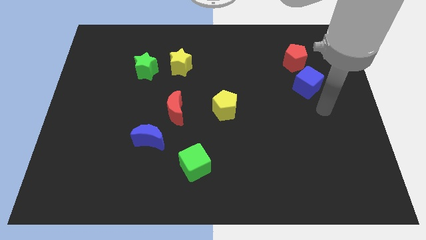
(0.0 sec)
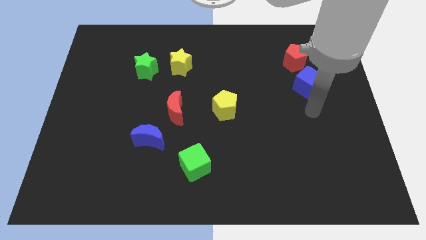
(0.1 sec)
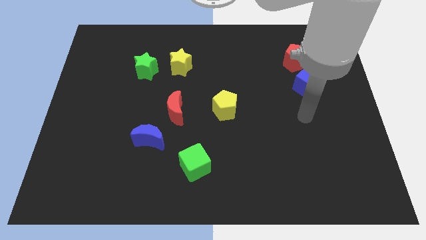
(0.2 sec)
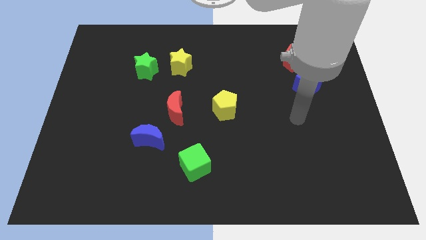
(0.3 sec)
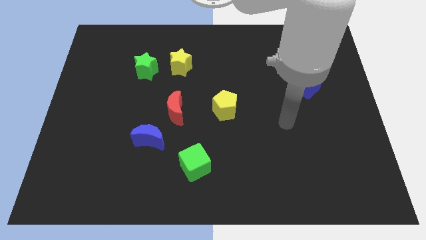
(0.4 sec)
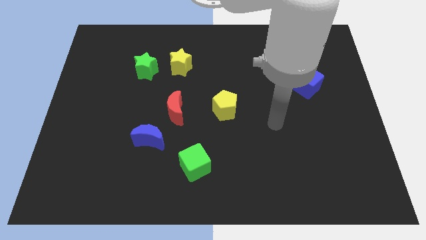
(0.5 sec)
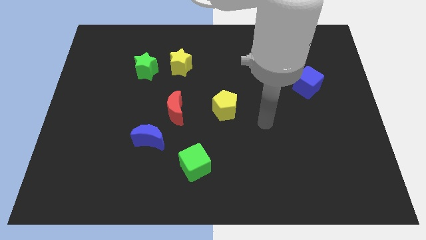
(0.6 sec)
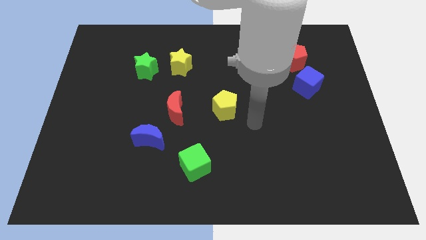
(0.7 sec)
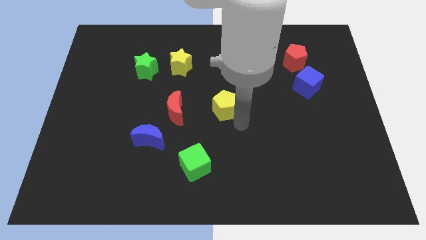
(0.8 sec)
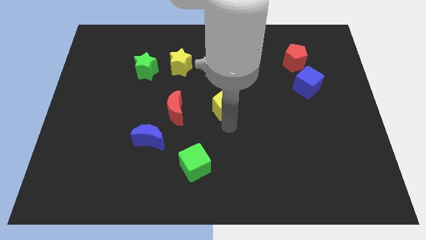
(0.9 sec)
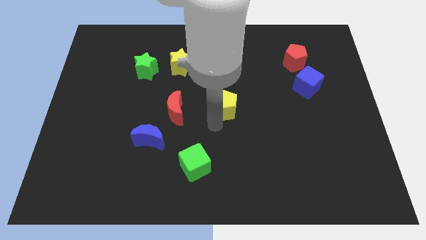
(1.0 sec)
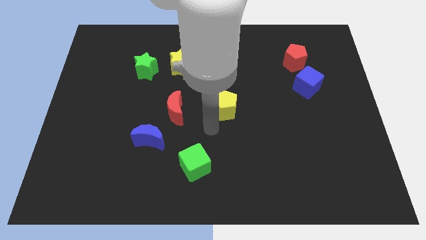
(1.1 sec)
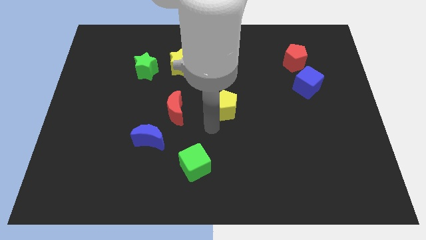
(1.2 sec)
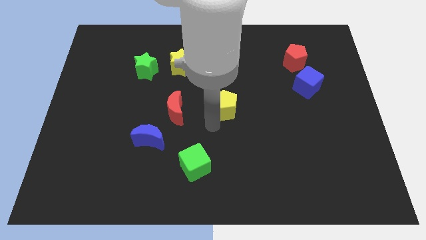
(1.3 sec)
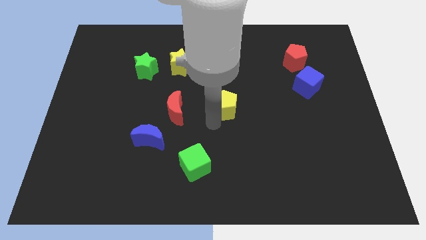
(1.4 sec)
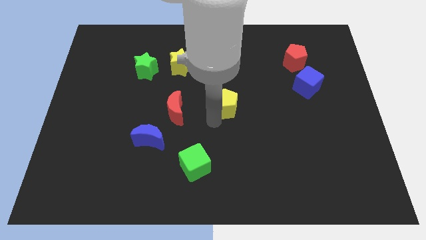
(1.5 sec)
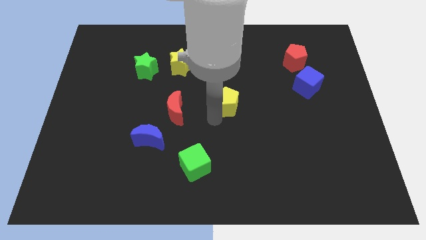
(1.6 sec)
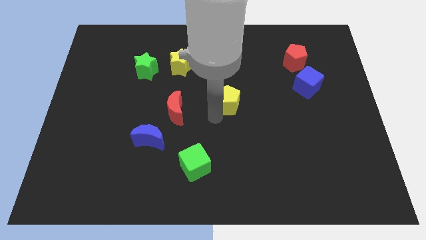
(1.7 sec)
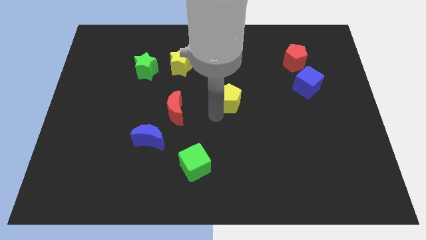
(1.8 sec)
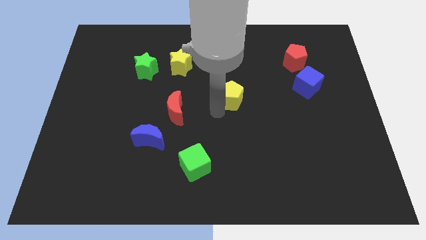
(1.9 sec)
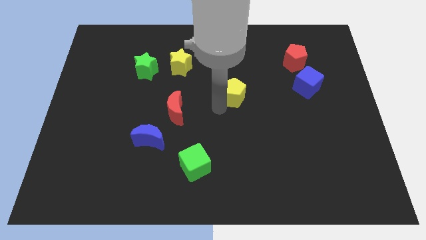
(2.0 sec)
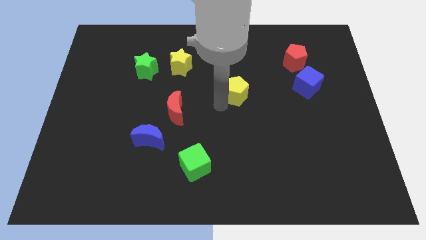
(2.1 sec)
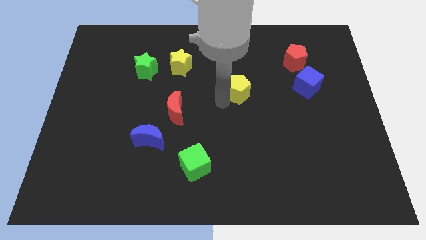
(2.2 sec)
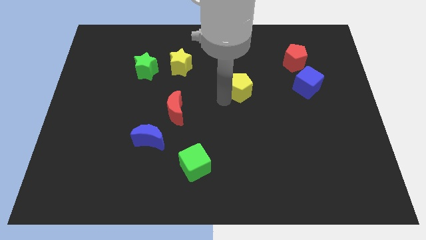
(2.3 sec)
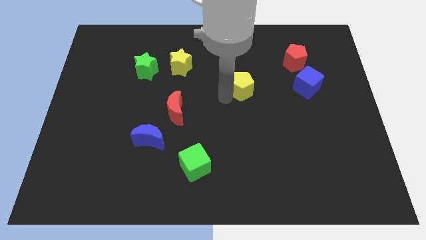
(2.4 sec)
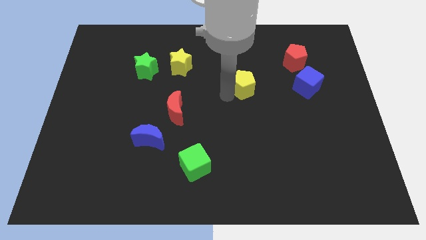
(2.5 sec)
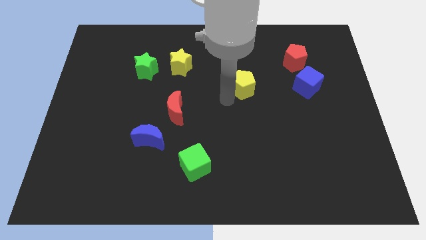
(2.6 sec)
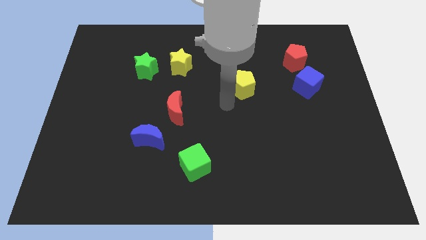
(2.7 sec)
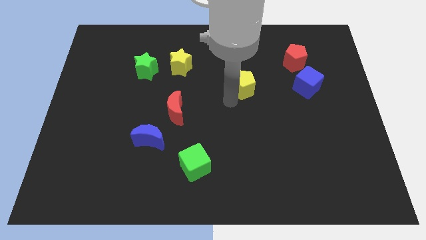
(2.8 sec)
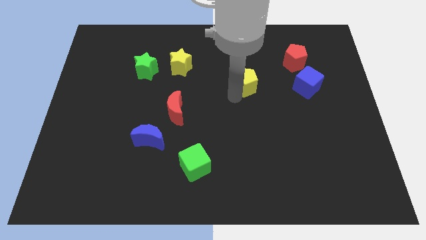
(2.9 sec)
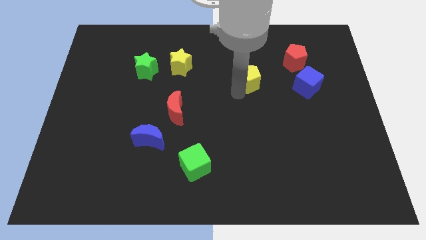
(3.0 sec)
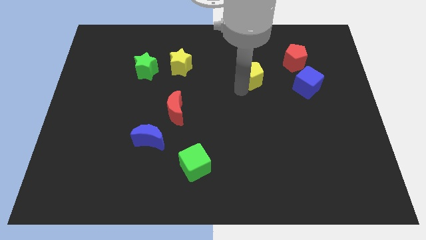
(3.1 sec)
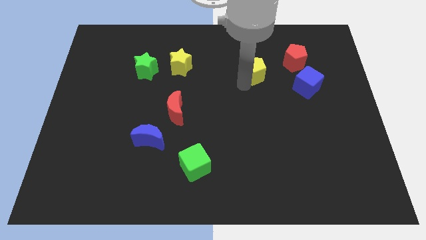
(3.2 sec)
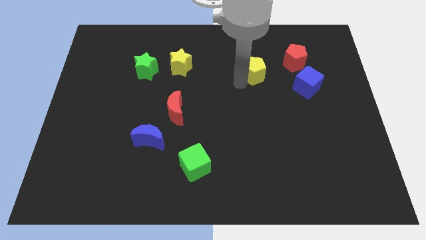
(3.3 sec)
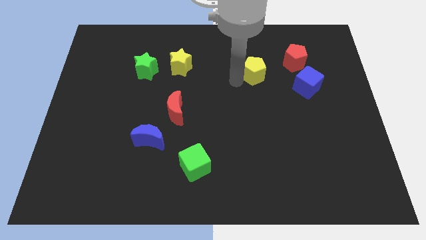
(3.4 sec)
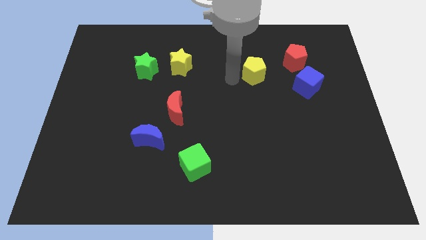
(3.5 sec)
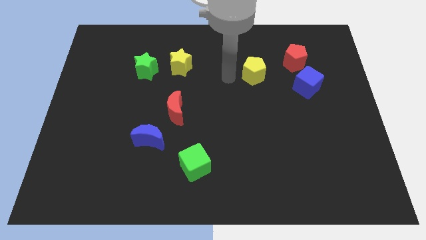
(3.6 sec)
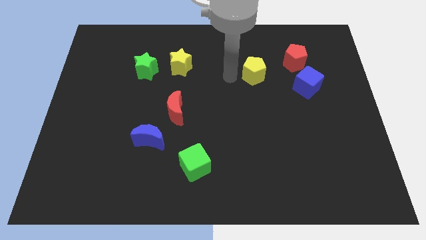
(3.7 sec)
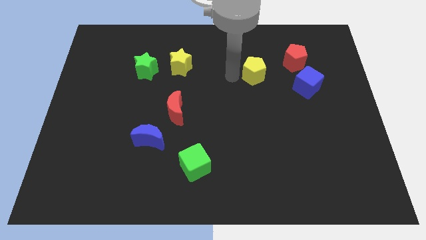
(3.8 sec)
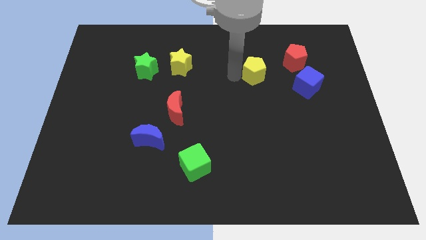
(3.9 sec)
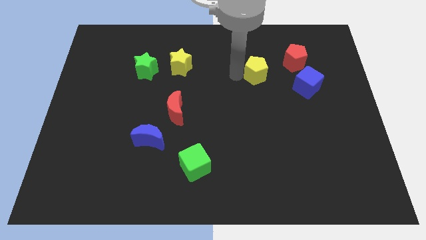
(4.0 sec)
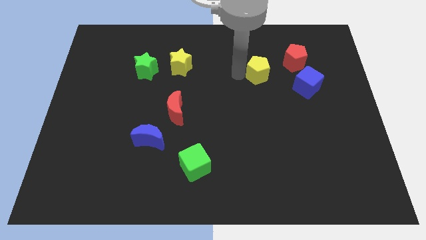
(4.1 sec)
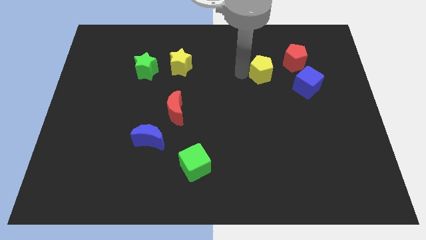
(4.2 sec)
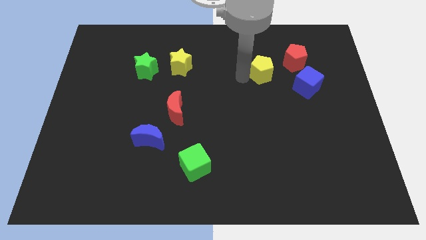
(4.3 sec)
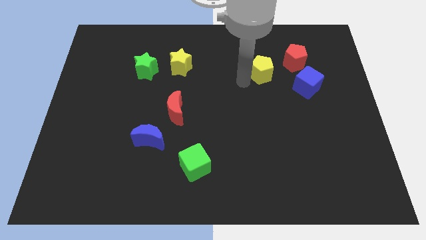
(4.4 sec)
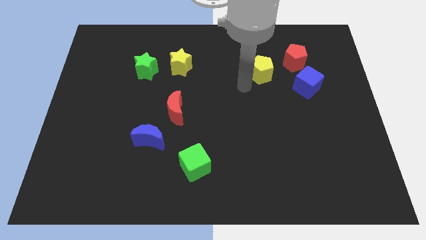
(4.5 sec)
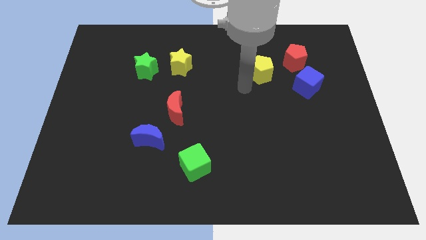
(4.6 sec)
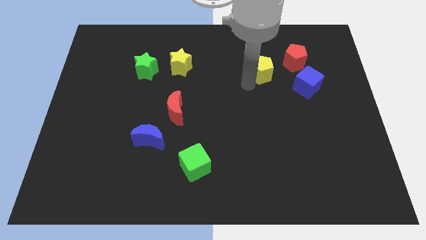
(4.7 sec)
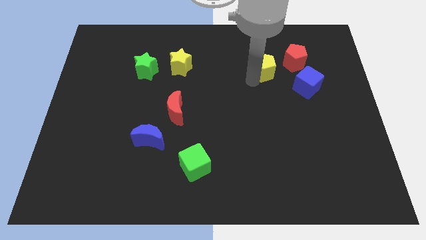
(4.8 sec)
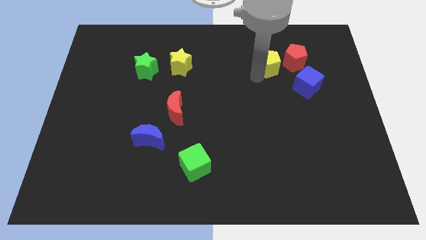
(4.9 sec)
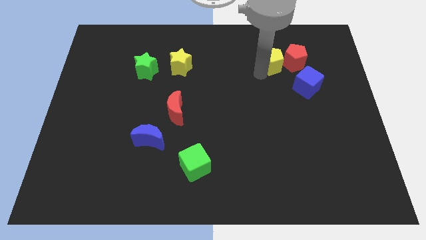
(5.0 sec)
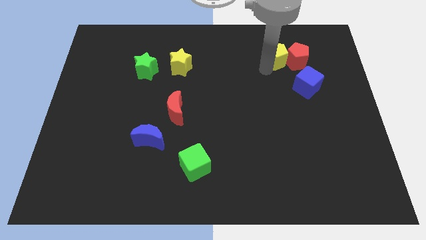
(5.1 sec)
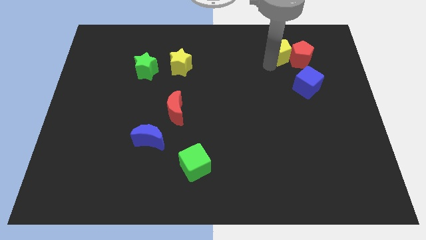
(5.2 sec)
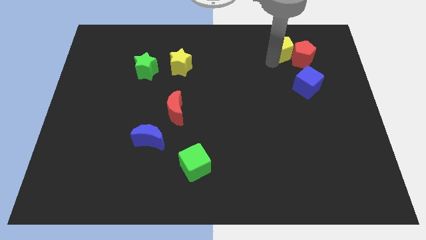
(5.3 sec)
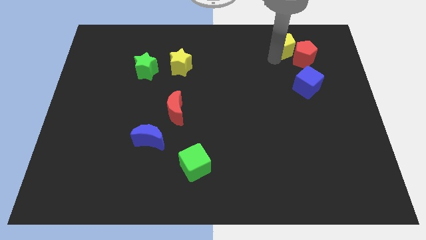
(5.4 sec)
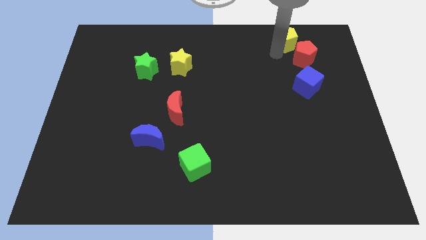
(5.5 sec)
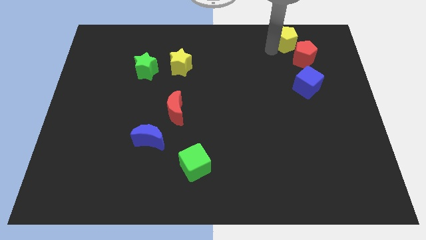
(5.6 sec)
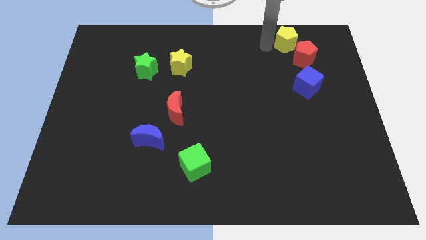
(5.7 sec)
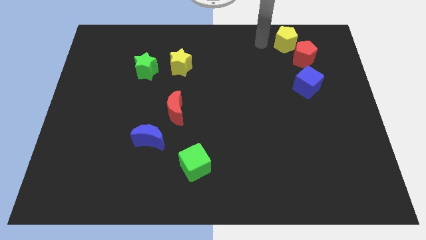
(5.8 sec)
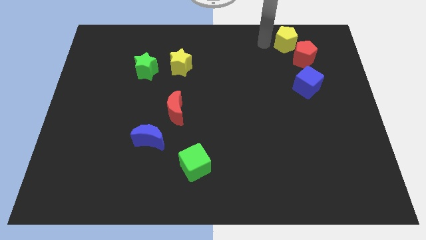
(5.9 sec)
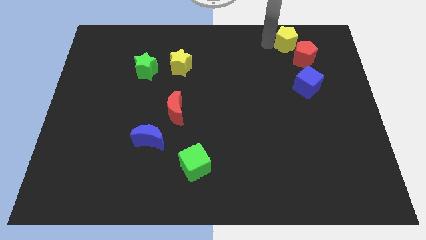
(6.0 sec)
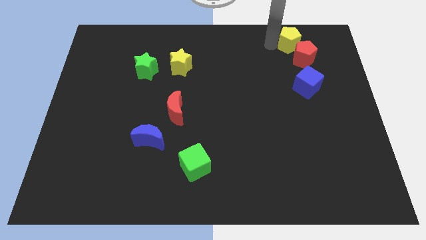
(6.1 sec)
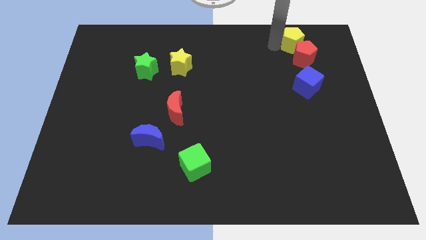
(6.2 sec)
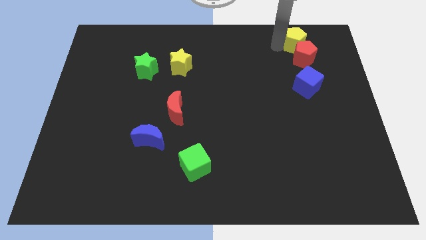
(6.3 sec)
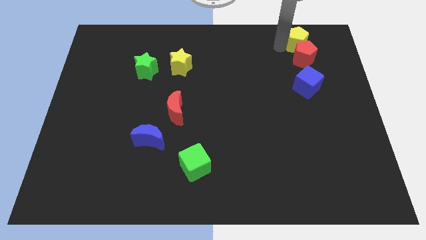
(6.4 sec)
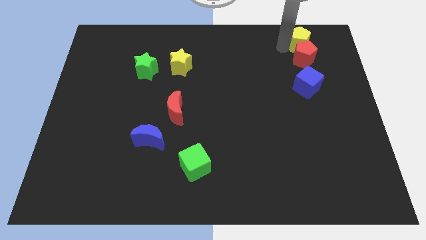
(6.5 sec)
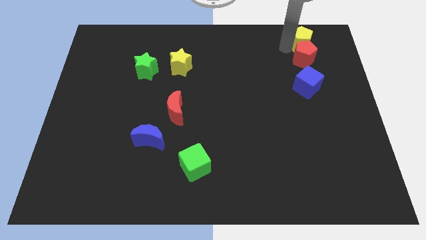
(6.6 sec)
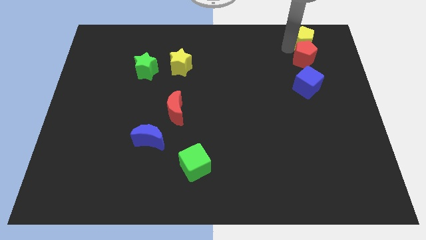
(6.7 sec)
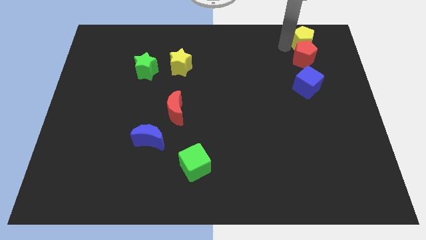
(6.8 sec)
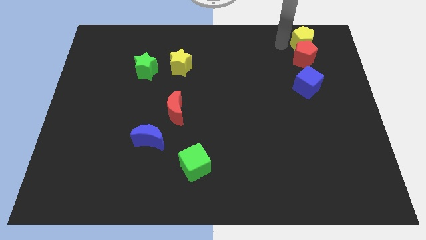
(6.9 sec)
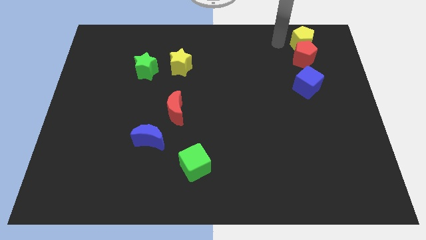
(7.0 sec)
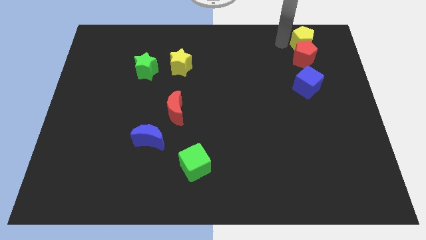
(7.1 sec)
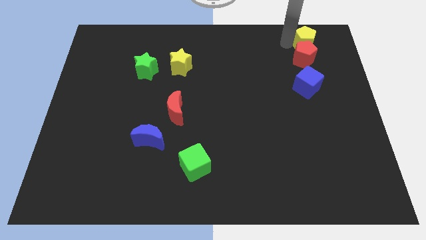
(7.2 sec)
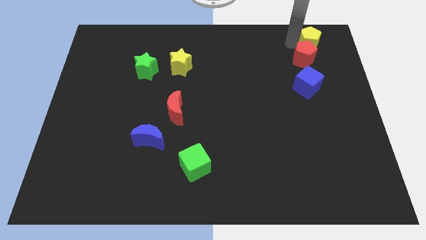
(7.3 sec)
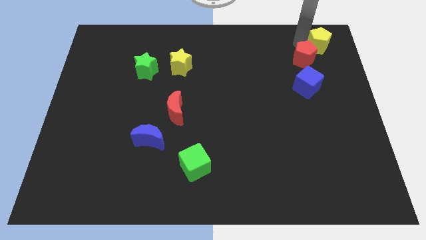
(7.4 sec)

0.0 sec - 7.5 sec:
slide the yellow pentagon to the upper right corner
